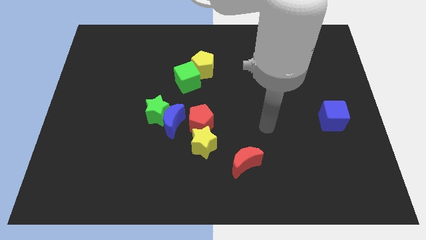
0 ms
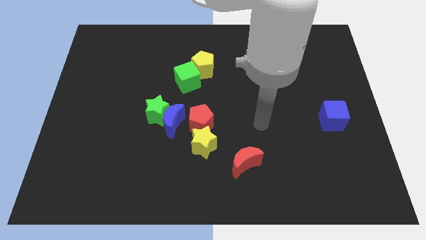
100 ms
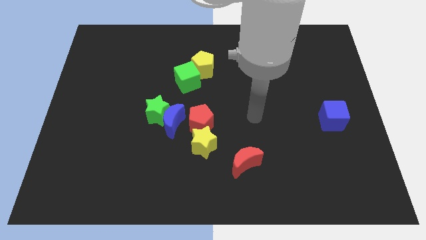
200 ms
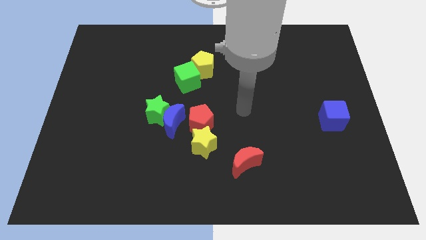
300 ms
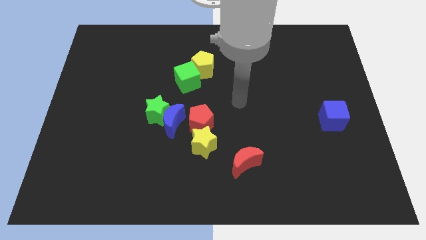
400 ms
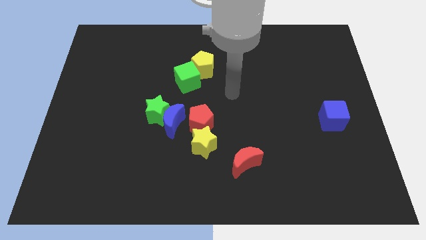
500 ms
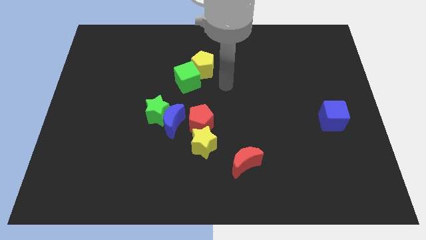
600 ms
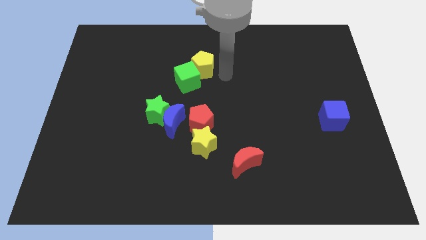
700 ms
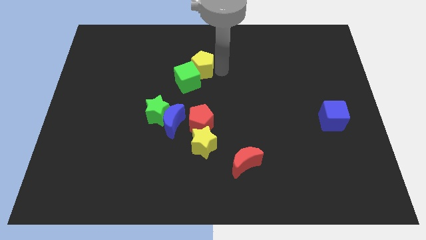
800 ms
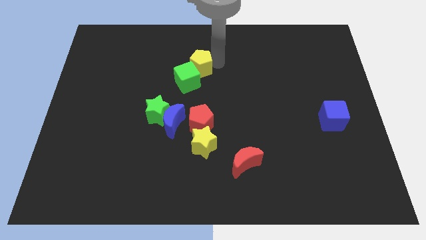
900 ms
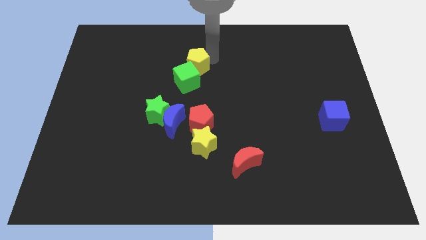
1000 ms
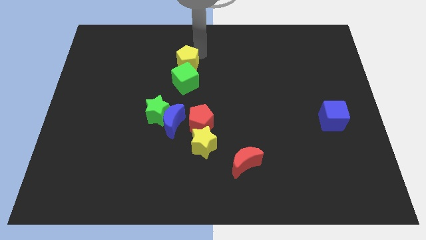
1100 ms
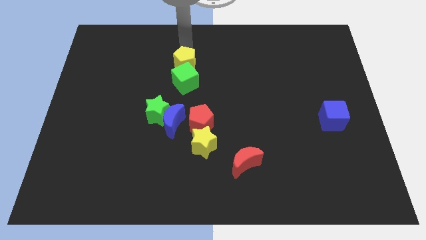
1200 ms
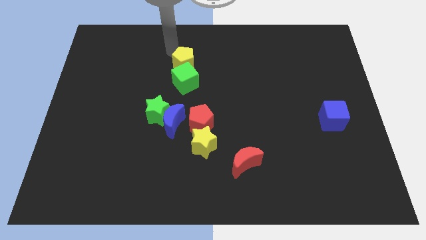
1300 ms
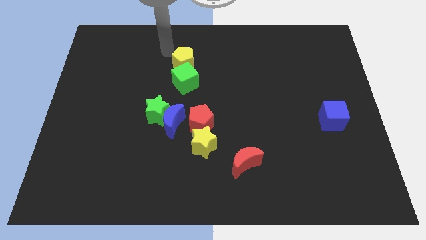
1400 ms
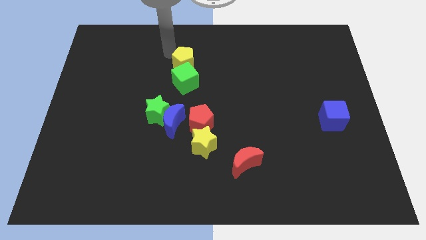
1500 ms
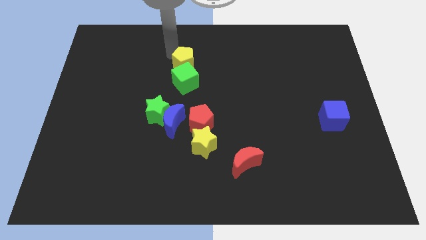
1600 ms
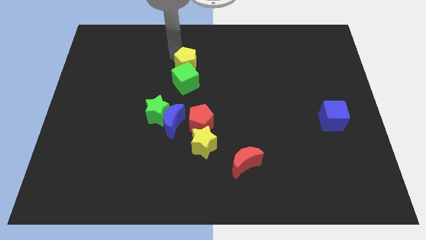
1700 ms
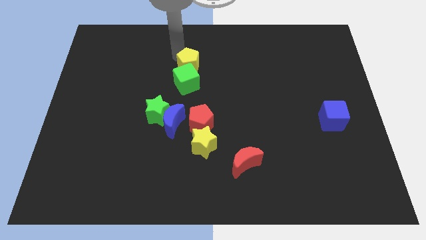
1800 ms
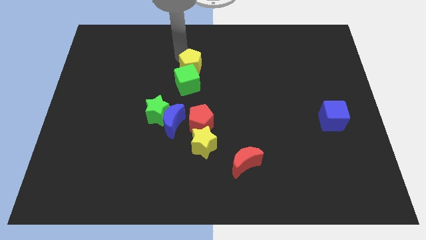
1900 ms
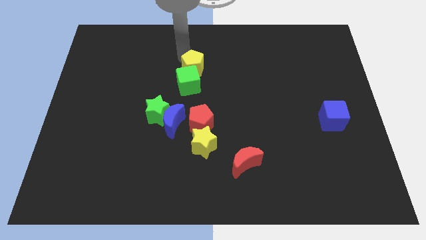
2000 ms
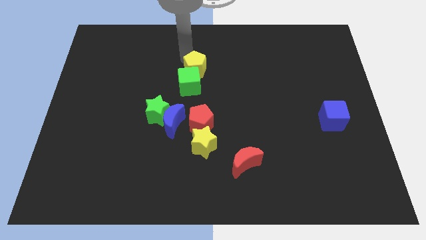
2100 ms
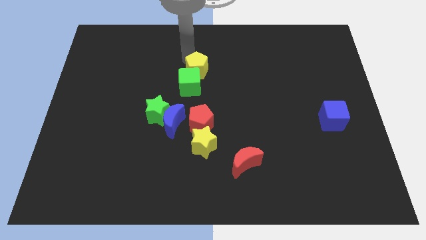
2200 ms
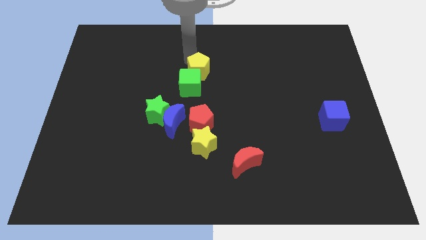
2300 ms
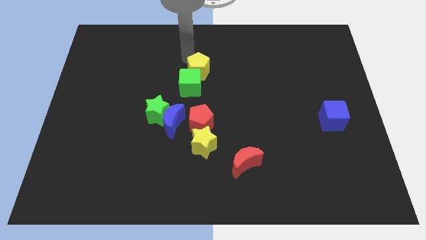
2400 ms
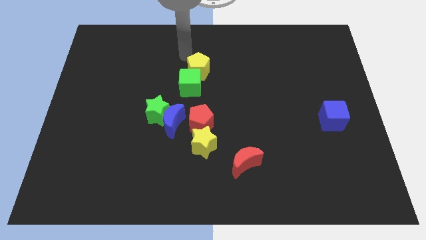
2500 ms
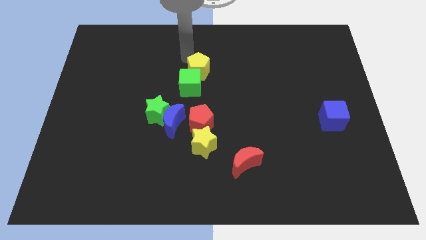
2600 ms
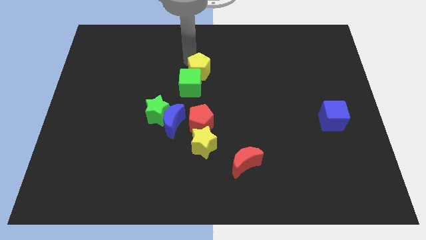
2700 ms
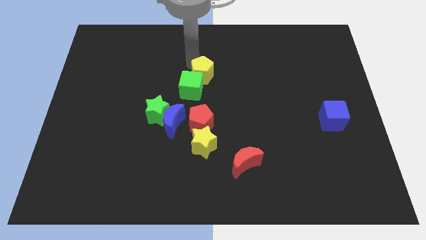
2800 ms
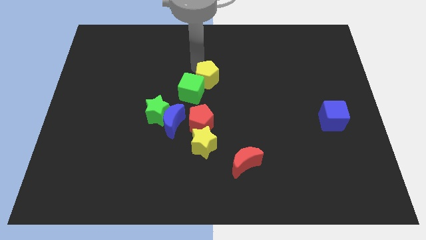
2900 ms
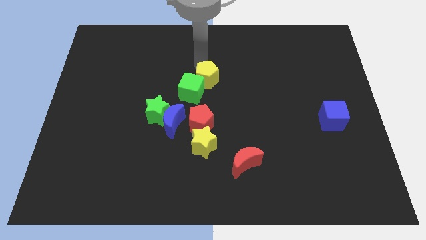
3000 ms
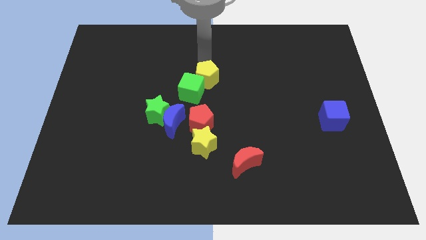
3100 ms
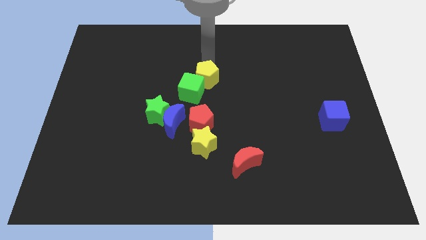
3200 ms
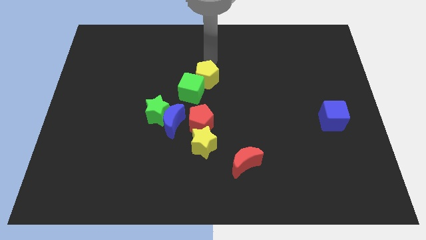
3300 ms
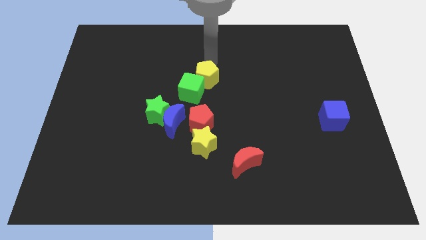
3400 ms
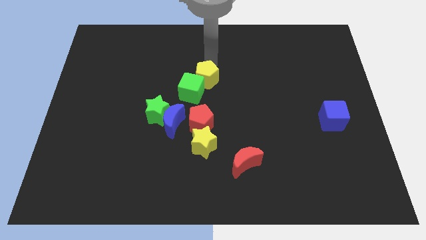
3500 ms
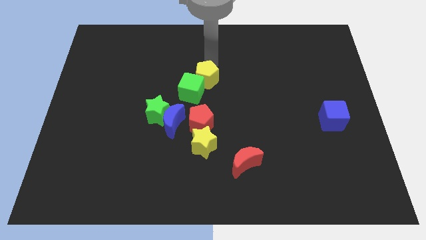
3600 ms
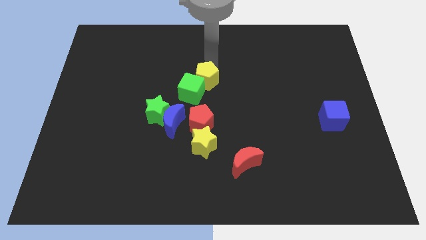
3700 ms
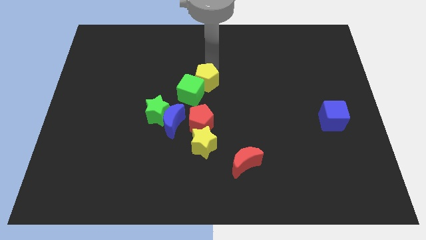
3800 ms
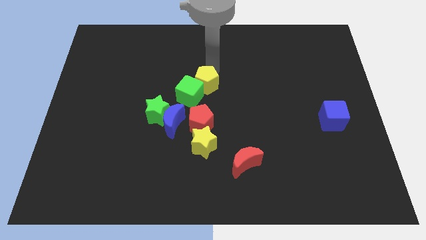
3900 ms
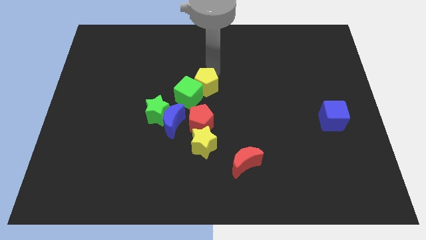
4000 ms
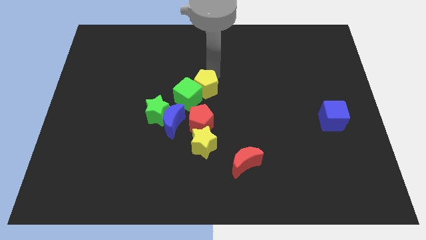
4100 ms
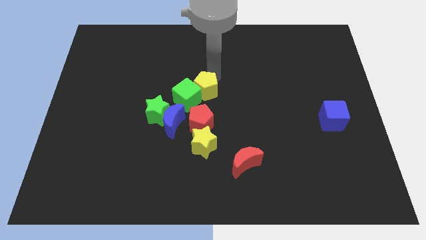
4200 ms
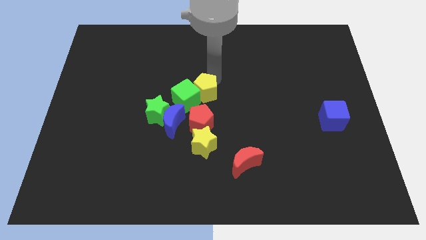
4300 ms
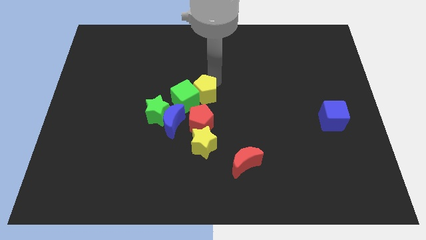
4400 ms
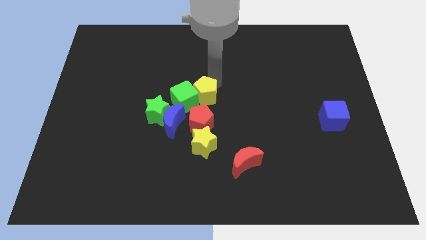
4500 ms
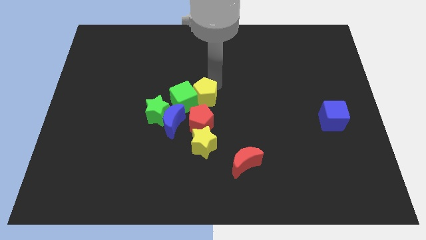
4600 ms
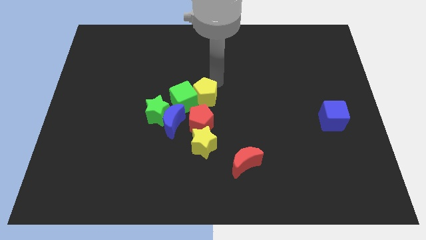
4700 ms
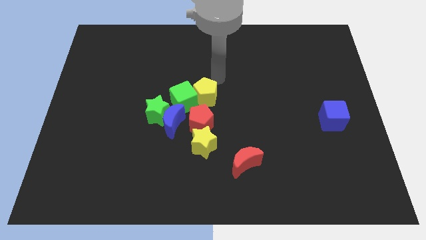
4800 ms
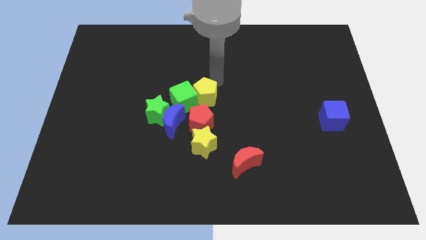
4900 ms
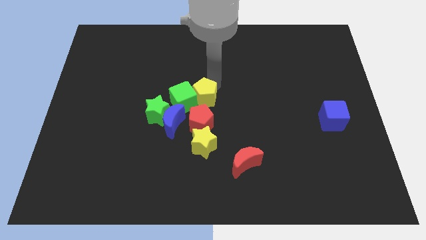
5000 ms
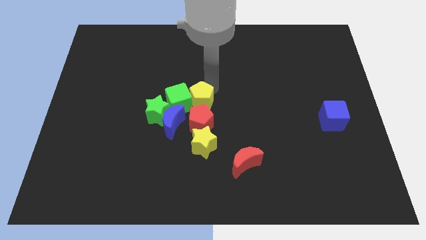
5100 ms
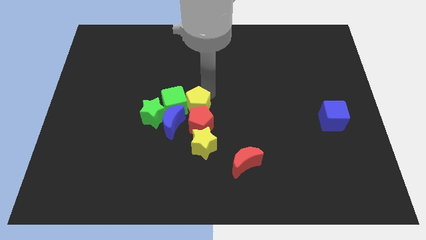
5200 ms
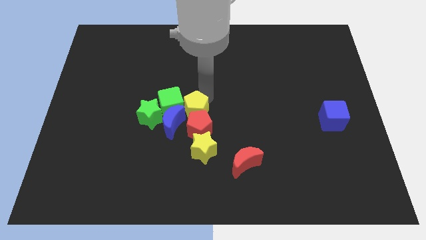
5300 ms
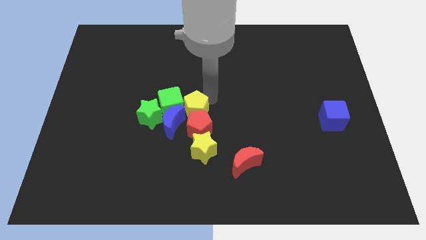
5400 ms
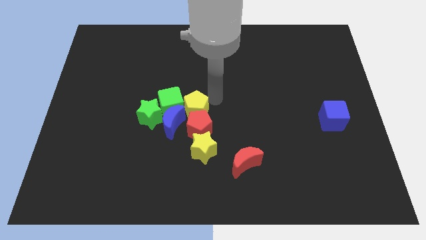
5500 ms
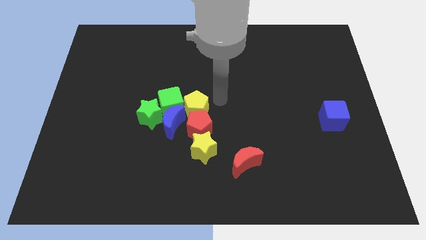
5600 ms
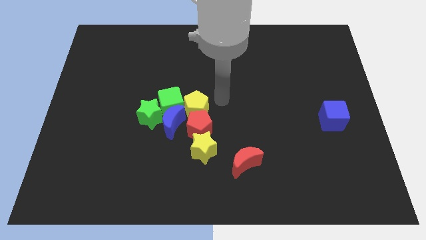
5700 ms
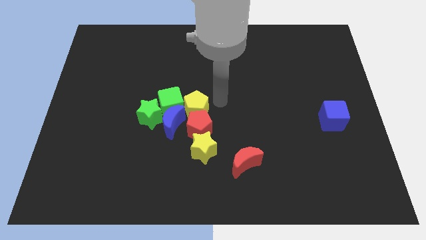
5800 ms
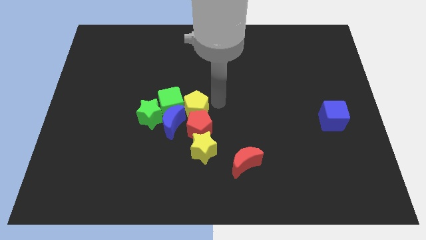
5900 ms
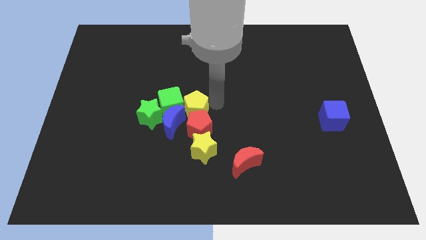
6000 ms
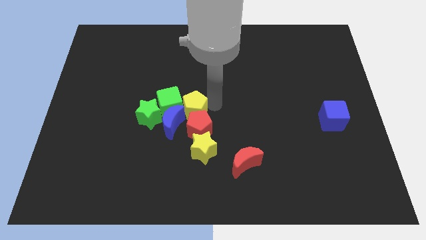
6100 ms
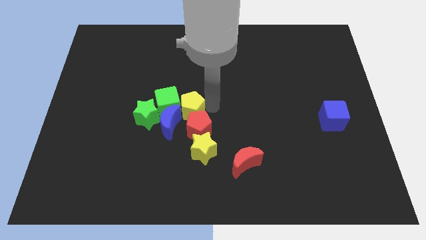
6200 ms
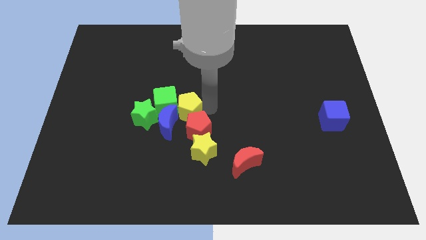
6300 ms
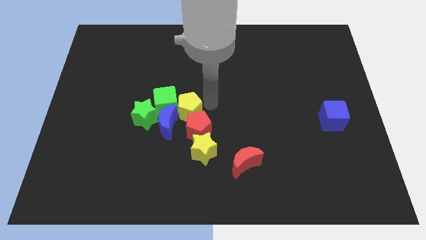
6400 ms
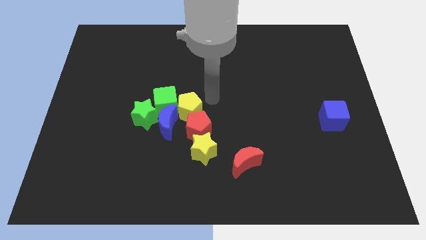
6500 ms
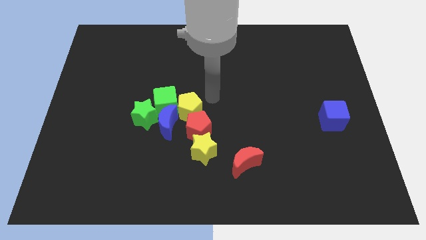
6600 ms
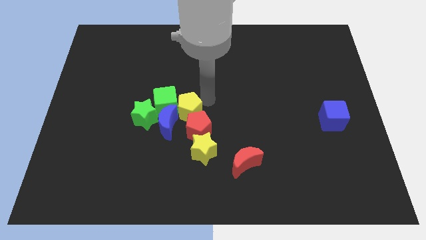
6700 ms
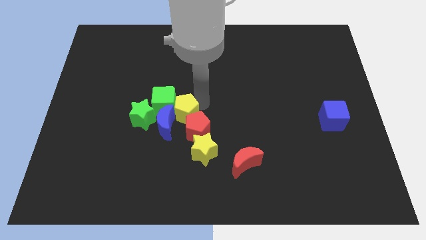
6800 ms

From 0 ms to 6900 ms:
move the yellow pentagon towards the blue moon

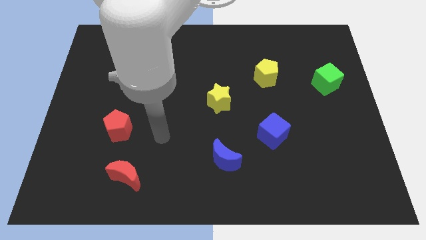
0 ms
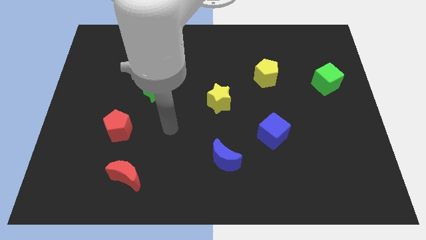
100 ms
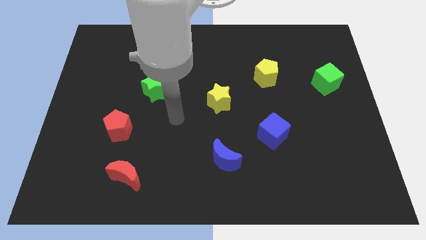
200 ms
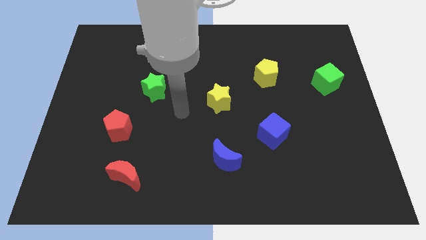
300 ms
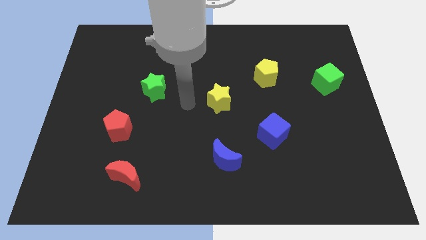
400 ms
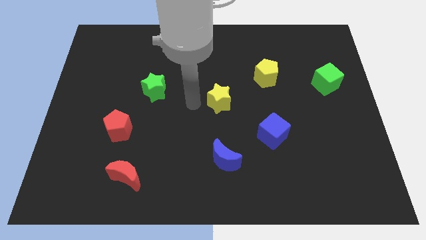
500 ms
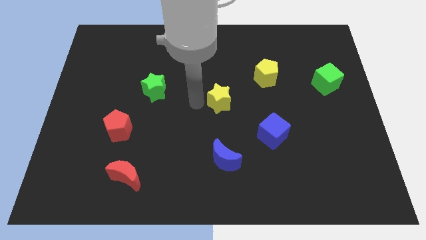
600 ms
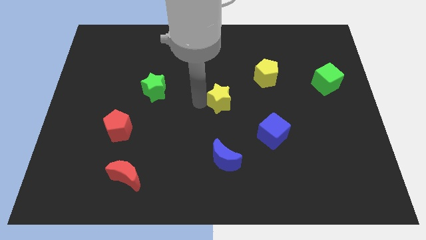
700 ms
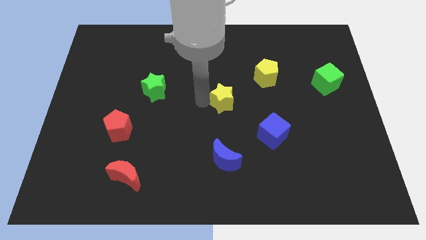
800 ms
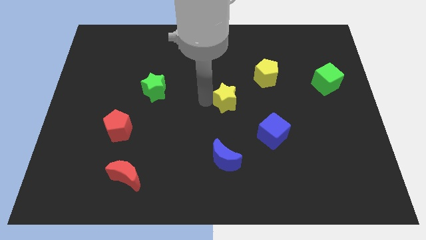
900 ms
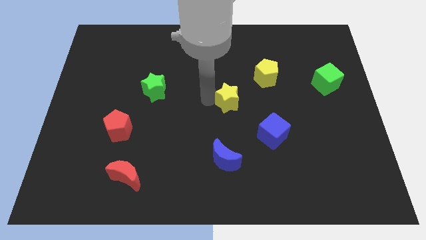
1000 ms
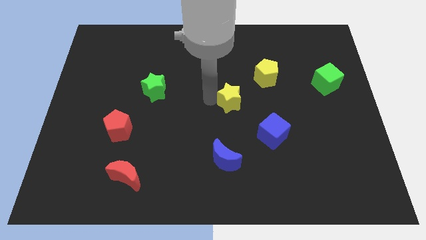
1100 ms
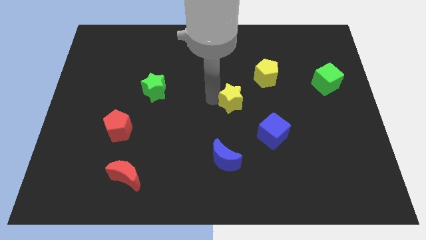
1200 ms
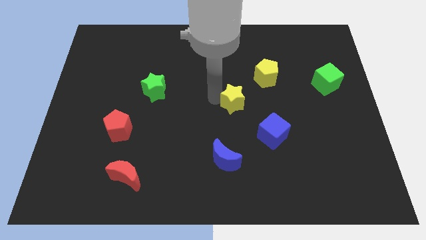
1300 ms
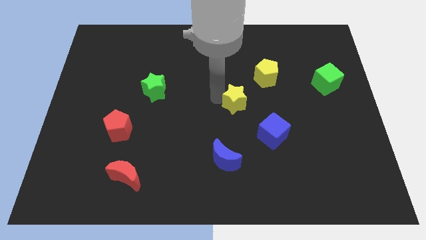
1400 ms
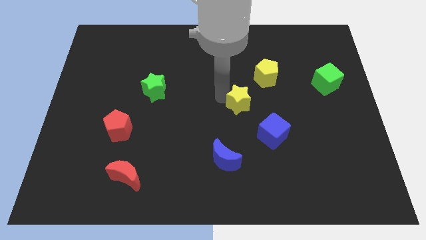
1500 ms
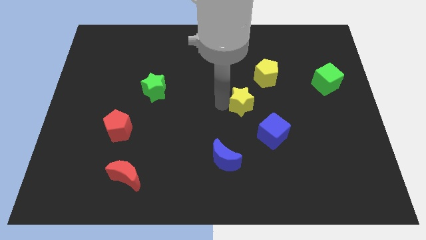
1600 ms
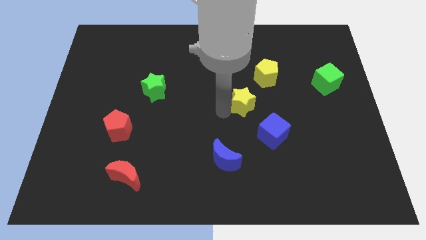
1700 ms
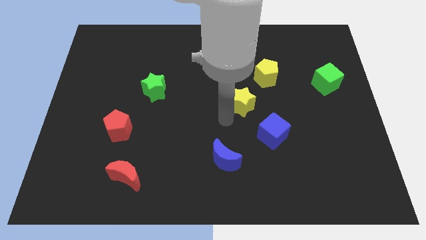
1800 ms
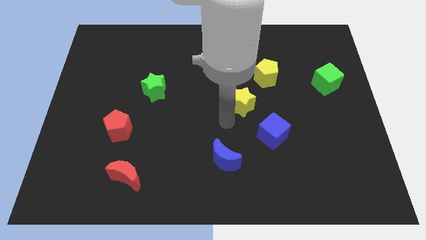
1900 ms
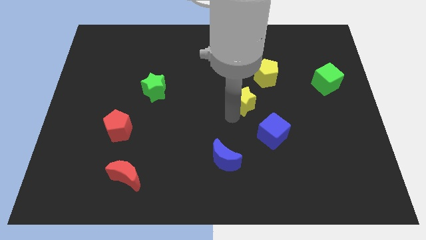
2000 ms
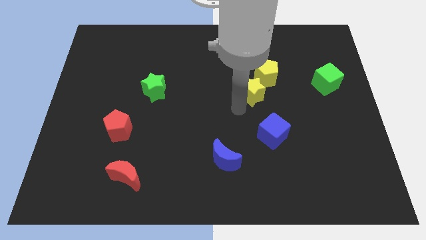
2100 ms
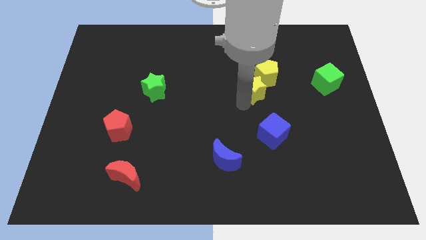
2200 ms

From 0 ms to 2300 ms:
put the yellow star to the yellow pentagon
